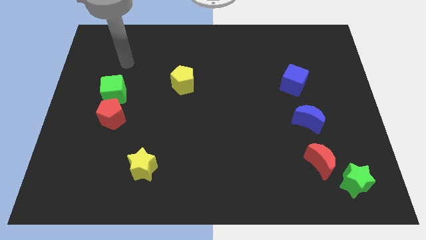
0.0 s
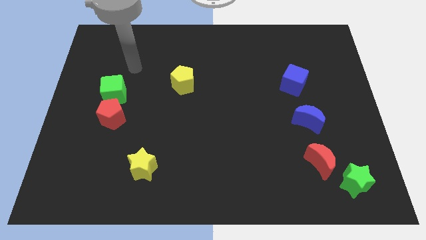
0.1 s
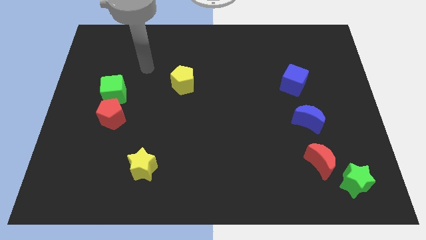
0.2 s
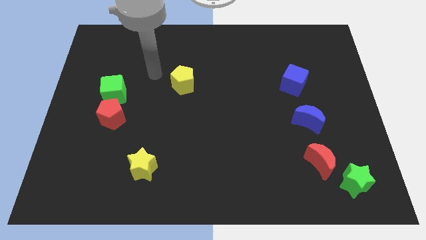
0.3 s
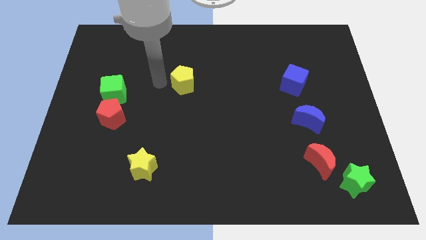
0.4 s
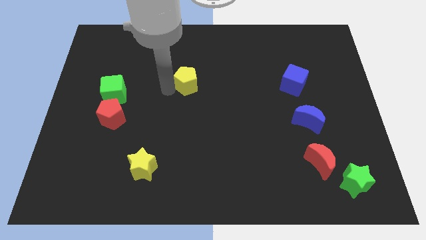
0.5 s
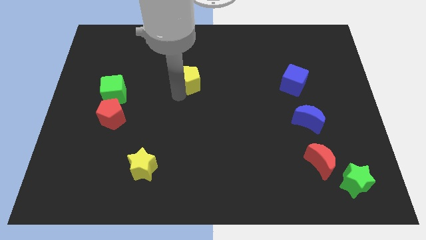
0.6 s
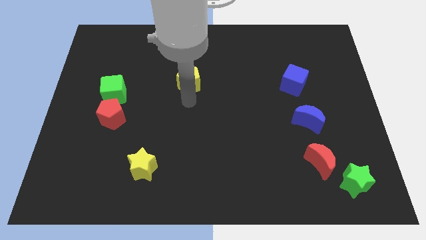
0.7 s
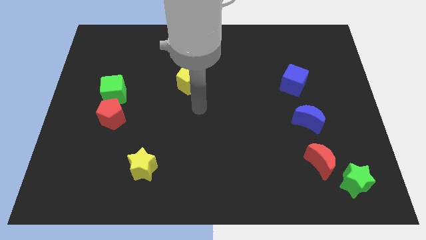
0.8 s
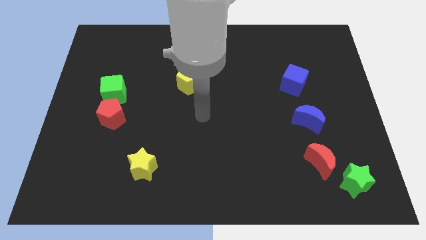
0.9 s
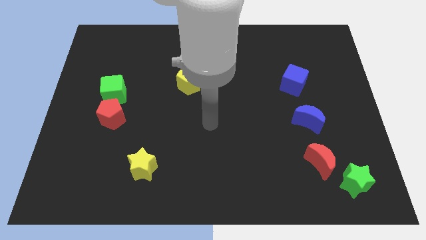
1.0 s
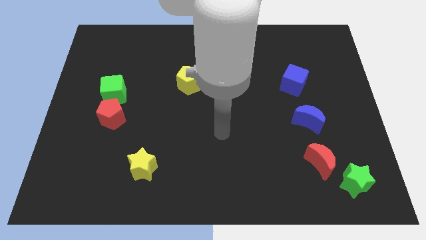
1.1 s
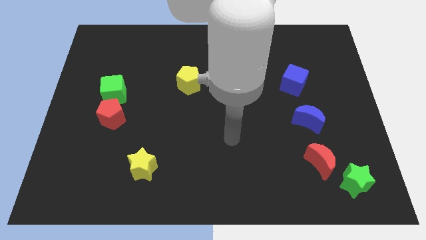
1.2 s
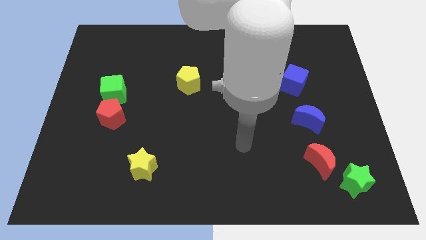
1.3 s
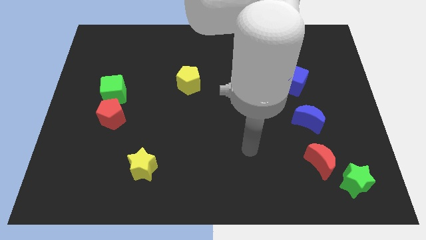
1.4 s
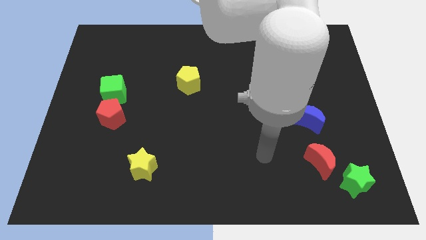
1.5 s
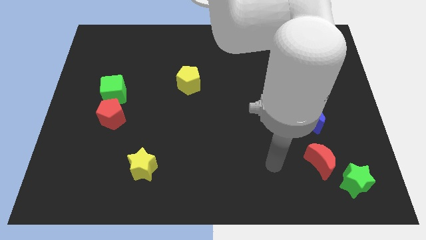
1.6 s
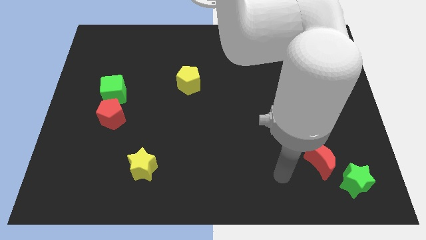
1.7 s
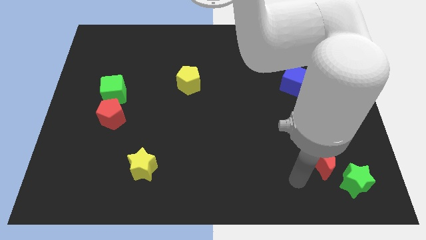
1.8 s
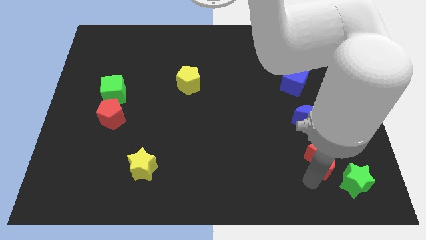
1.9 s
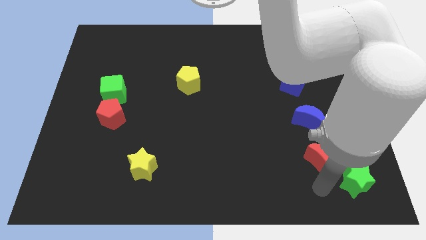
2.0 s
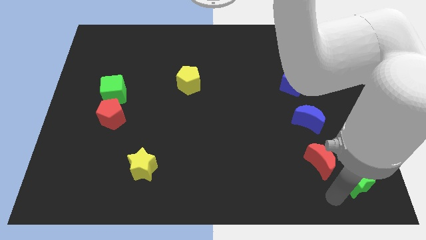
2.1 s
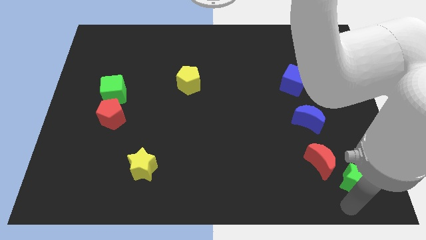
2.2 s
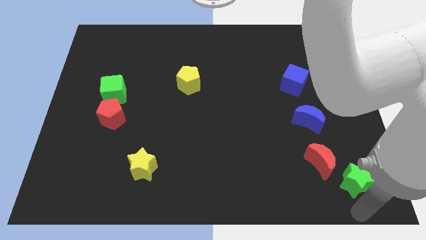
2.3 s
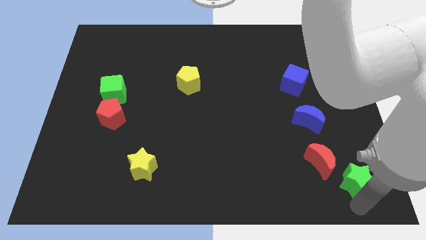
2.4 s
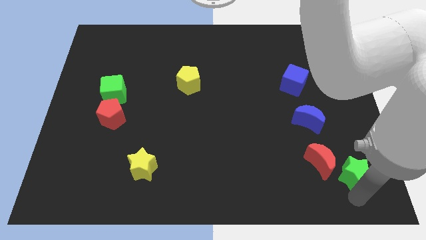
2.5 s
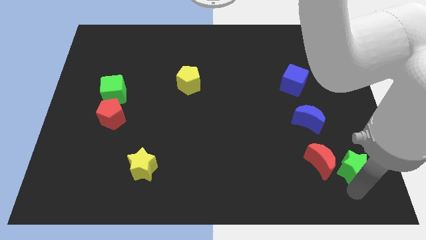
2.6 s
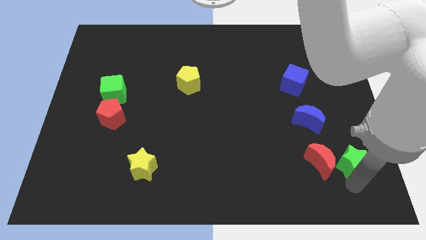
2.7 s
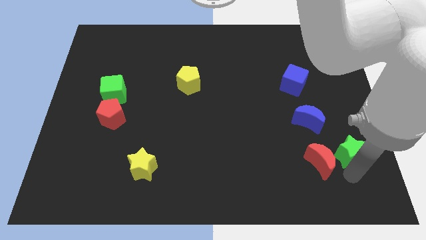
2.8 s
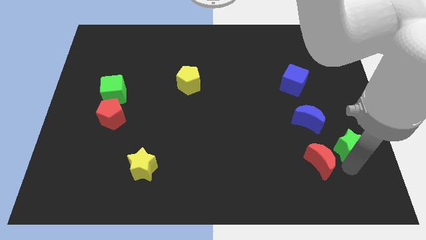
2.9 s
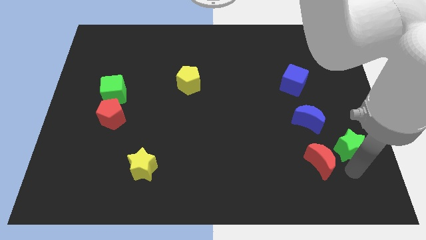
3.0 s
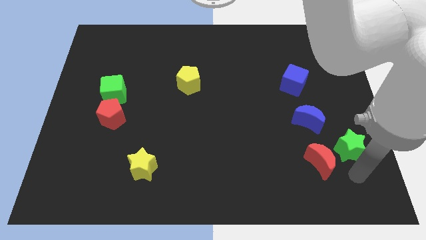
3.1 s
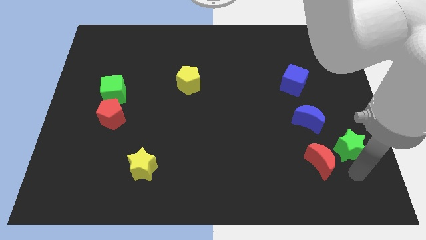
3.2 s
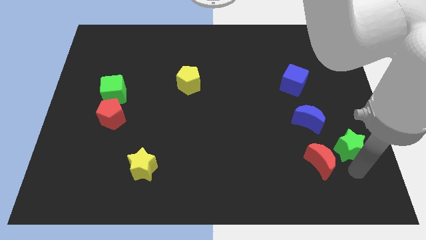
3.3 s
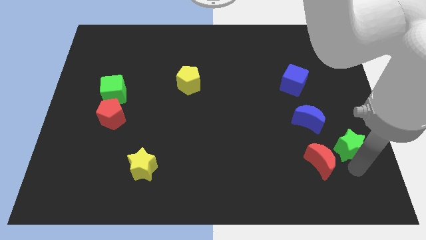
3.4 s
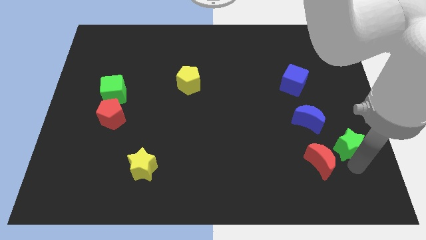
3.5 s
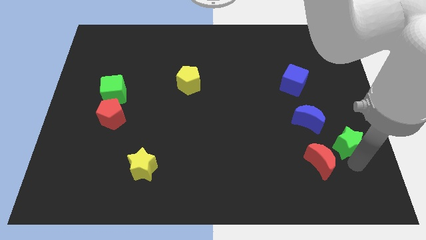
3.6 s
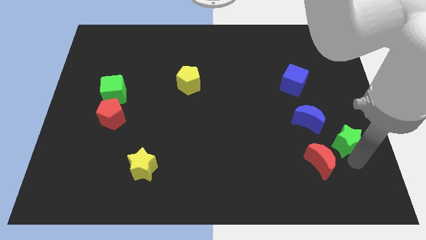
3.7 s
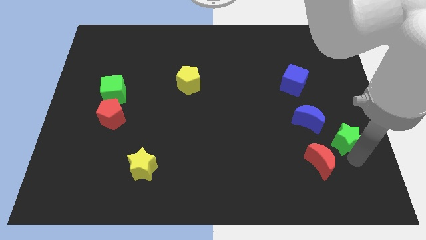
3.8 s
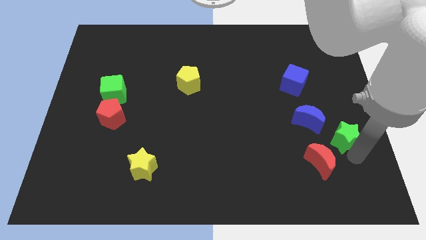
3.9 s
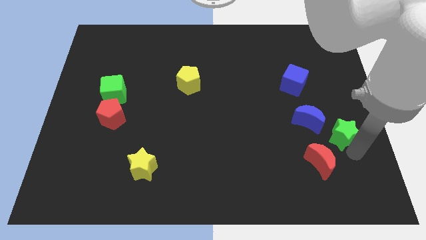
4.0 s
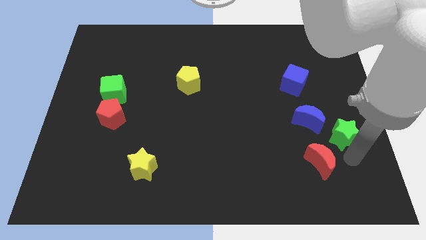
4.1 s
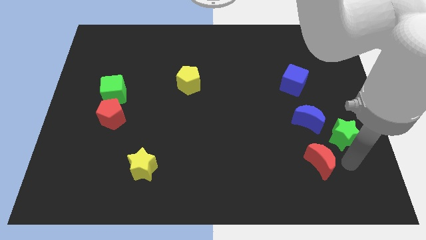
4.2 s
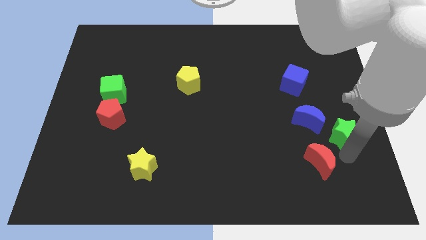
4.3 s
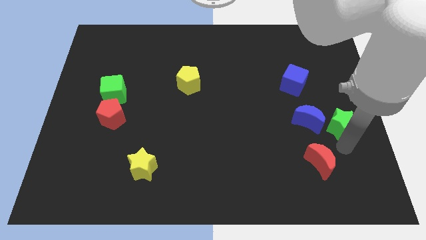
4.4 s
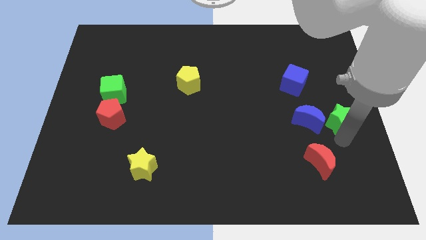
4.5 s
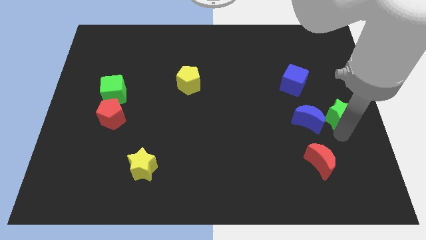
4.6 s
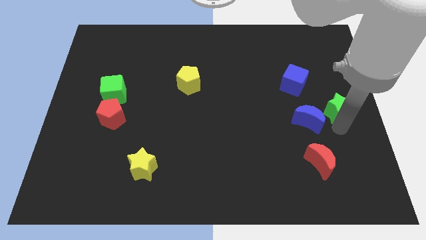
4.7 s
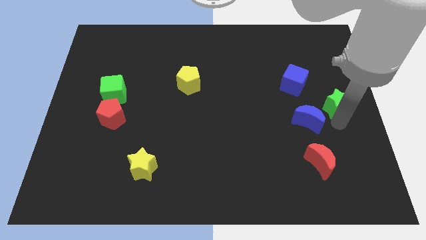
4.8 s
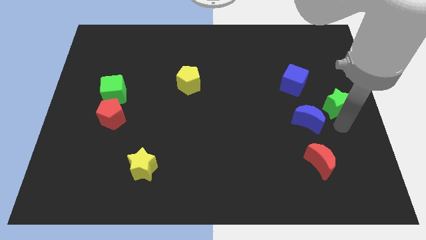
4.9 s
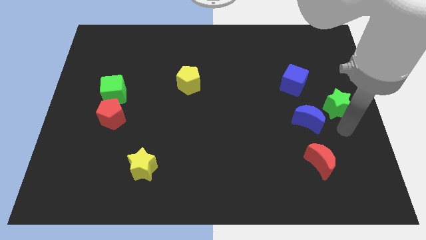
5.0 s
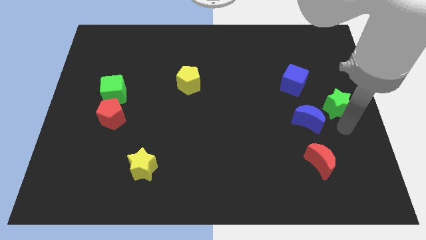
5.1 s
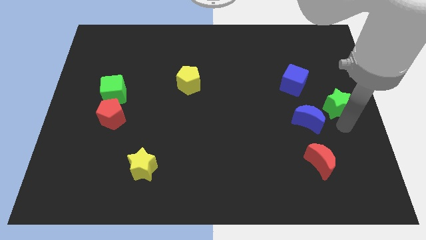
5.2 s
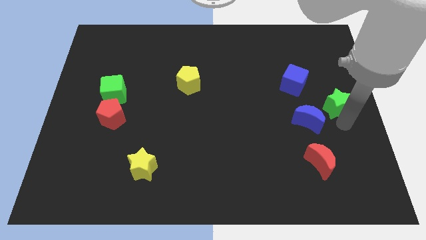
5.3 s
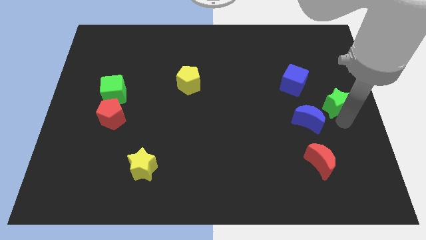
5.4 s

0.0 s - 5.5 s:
slide the green star upwards

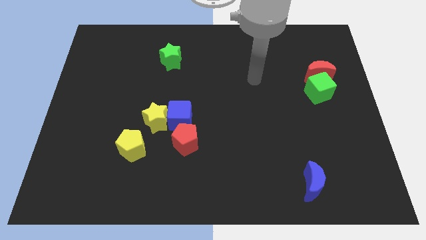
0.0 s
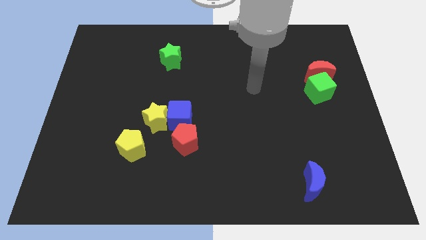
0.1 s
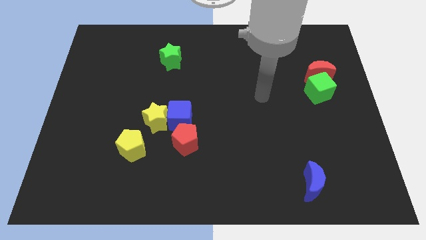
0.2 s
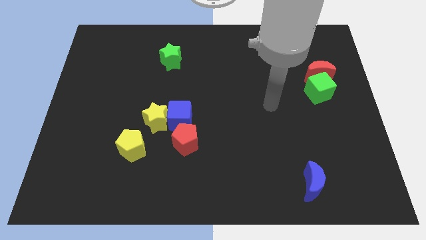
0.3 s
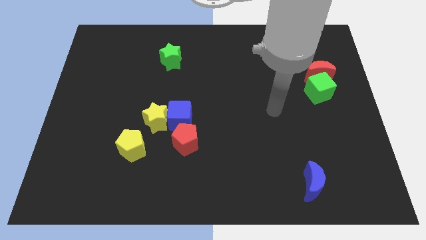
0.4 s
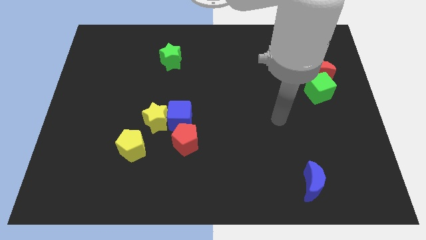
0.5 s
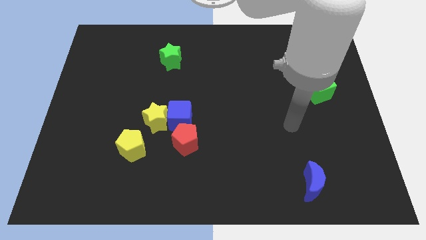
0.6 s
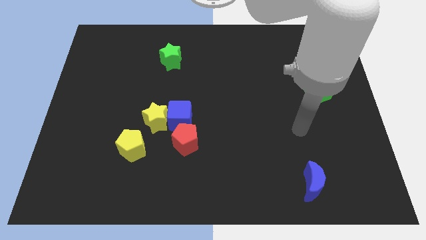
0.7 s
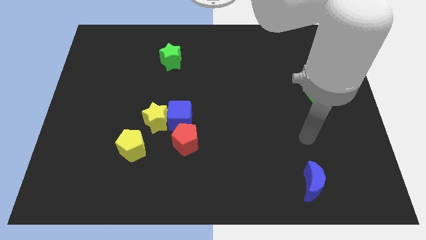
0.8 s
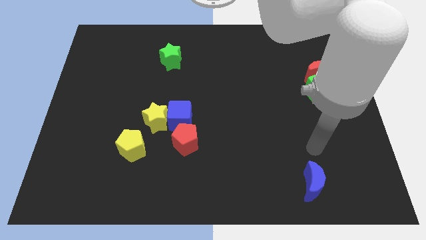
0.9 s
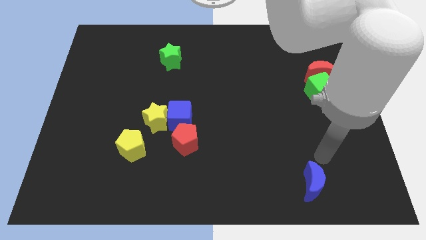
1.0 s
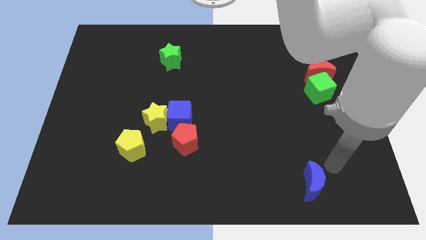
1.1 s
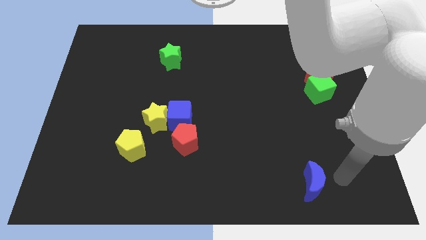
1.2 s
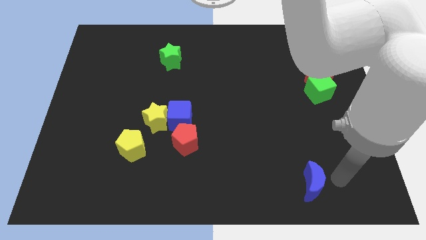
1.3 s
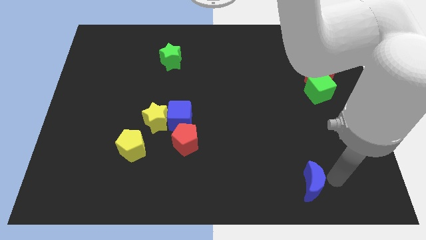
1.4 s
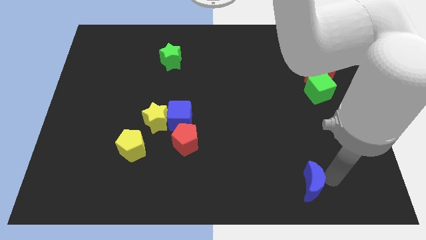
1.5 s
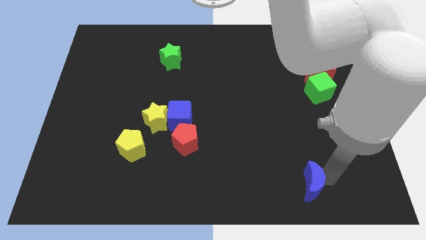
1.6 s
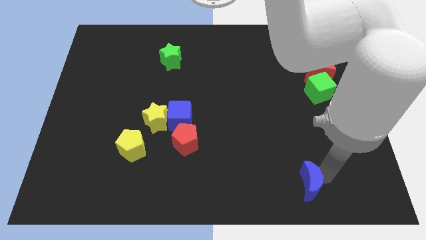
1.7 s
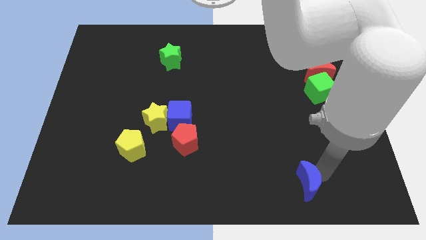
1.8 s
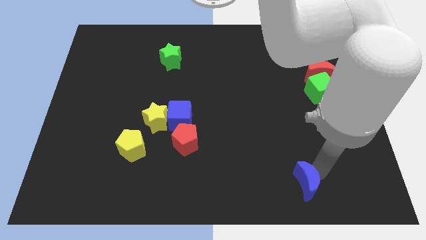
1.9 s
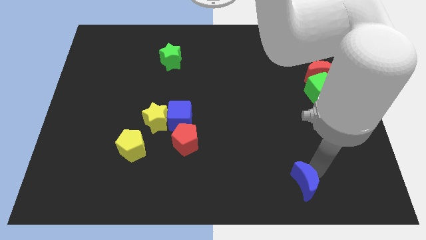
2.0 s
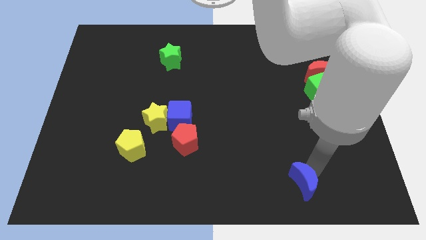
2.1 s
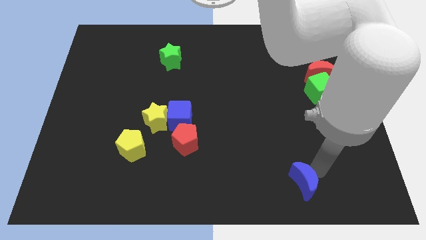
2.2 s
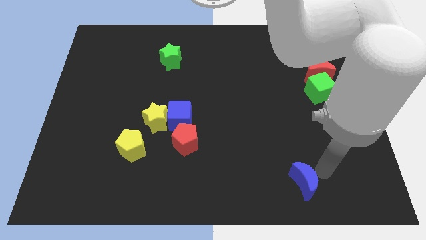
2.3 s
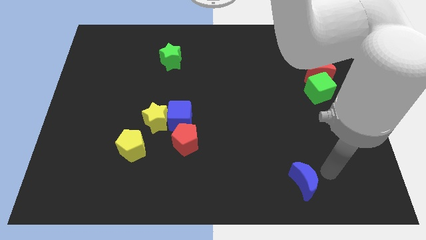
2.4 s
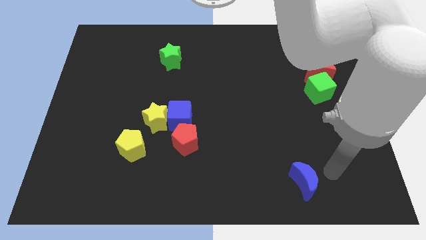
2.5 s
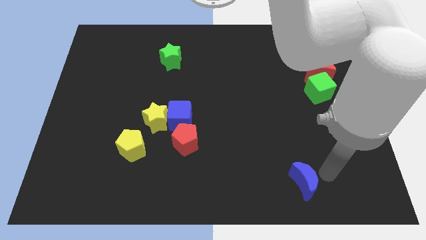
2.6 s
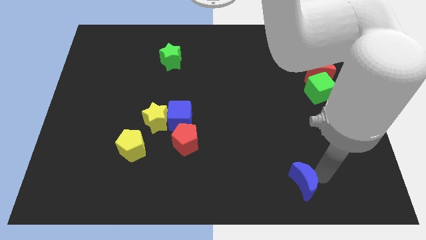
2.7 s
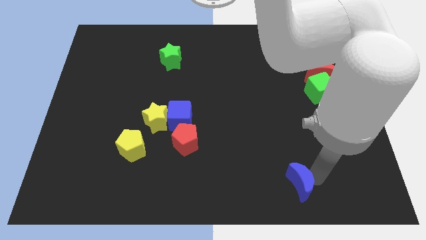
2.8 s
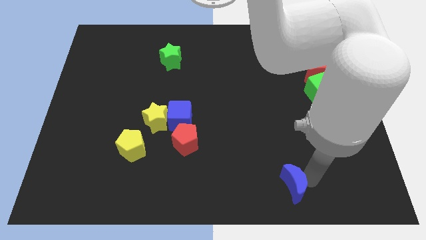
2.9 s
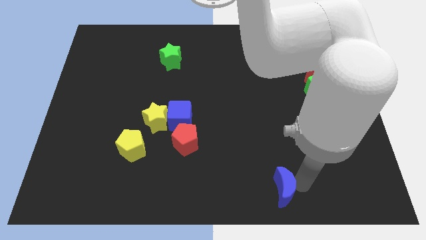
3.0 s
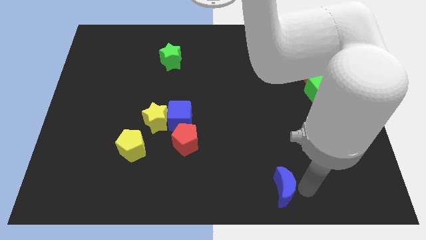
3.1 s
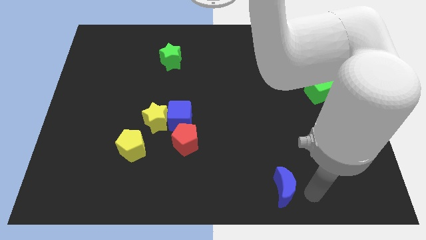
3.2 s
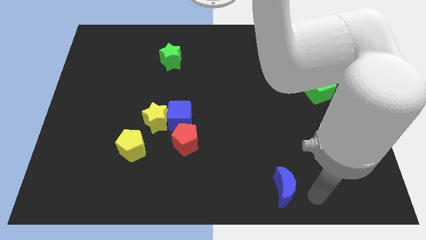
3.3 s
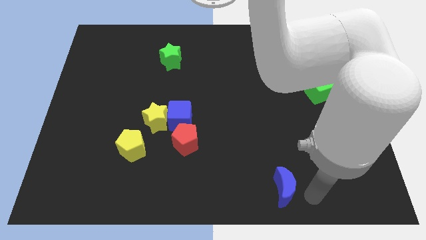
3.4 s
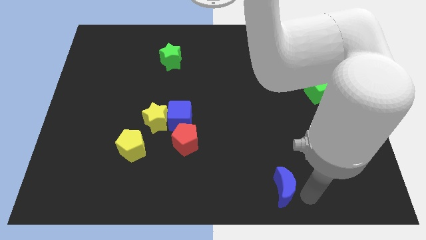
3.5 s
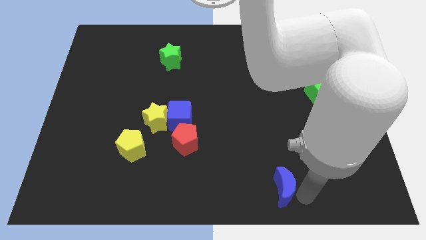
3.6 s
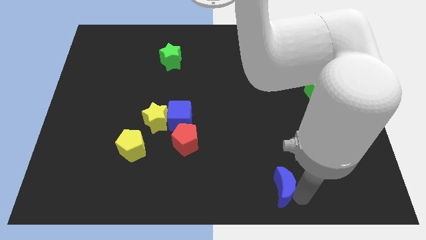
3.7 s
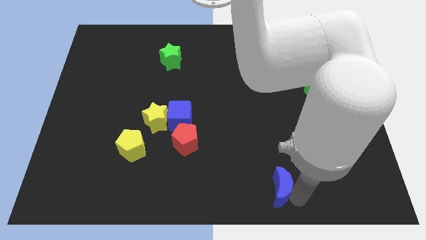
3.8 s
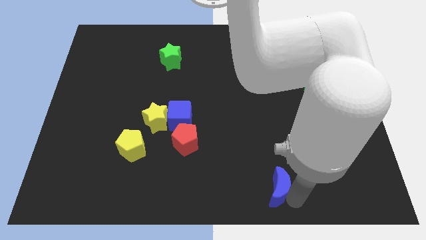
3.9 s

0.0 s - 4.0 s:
push the blue moon somewhat to the left
